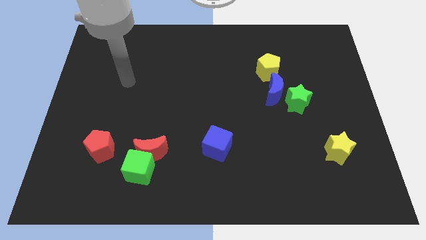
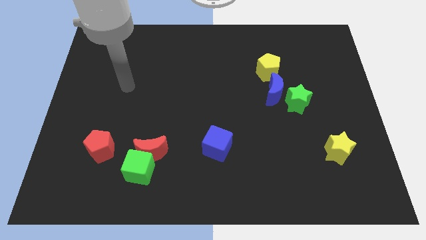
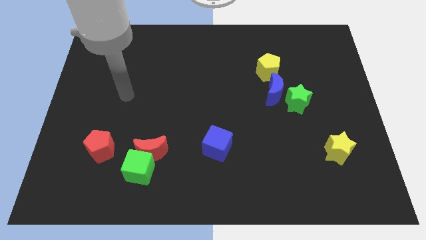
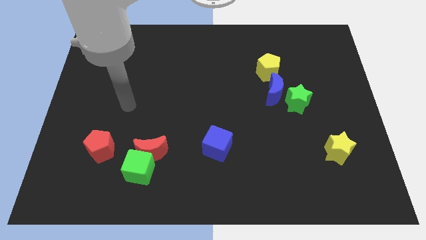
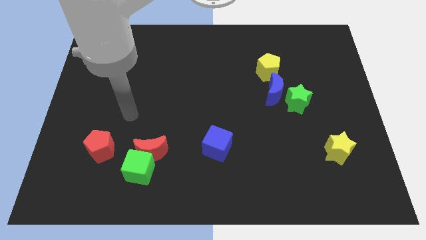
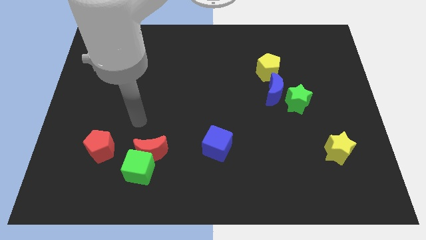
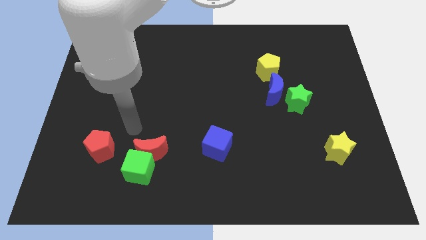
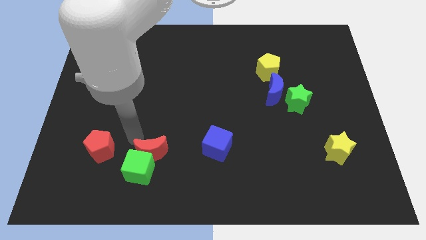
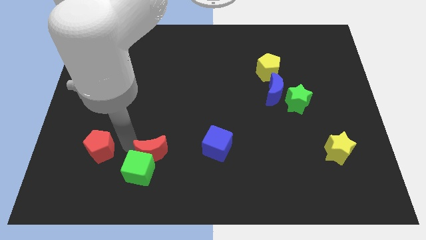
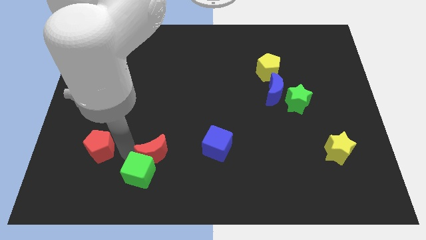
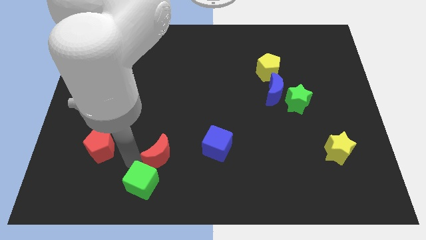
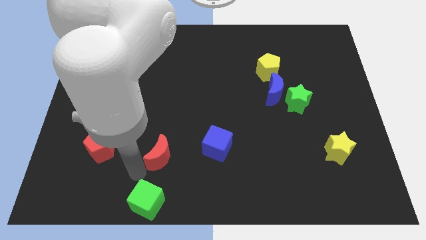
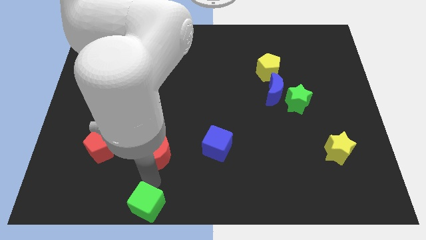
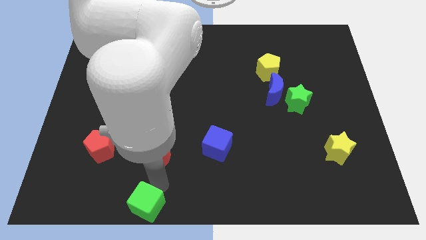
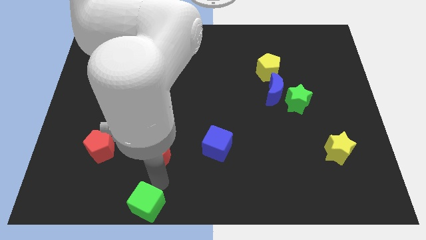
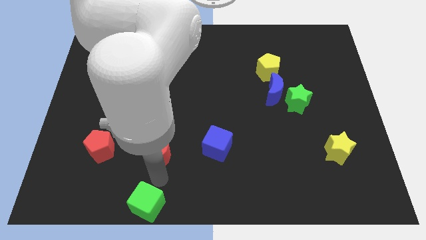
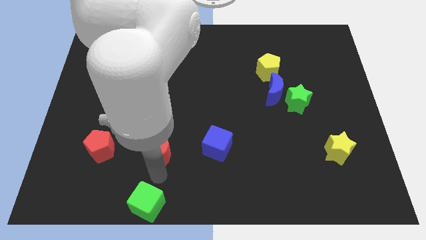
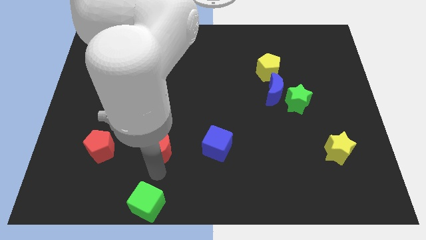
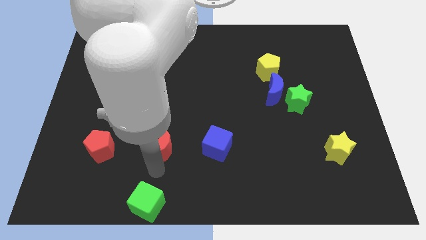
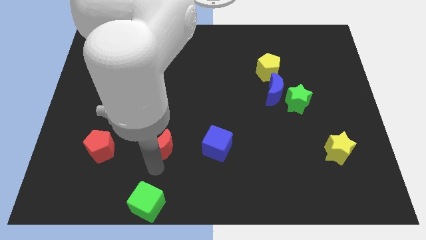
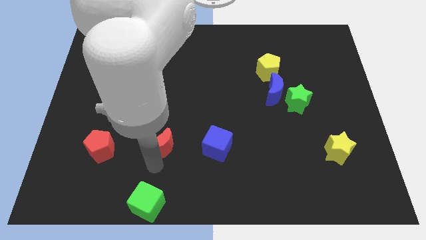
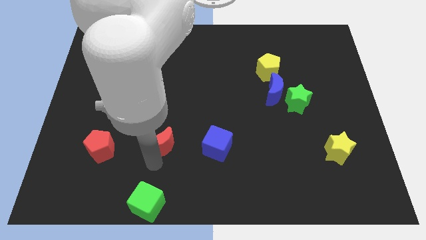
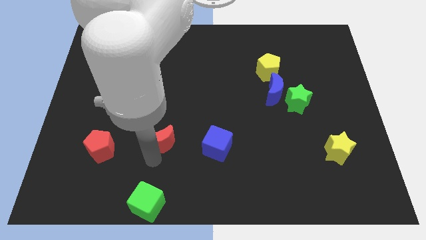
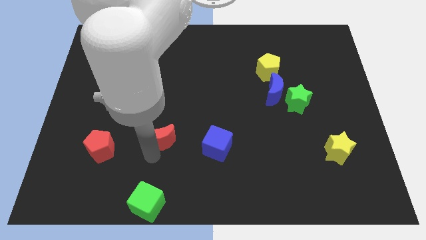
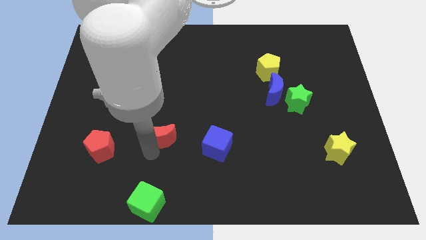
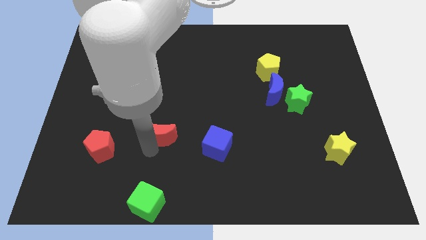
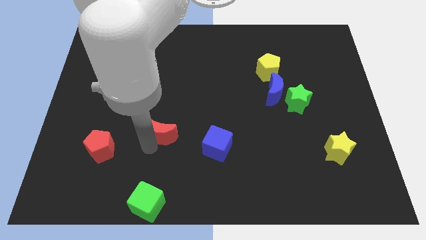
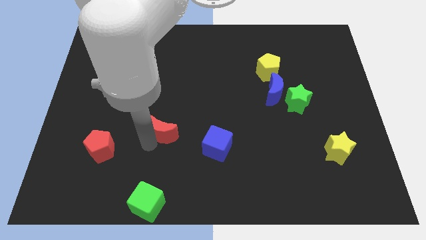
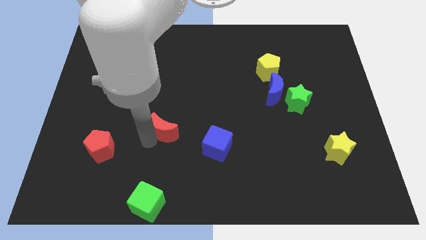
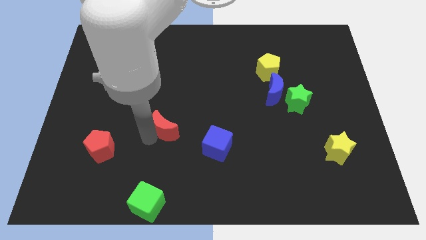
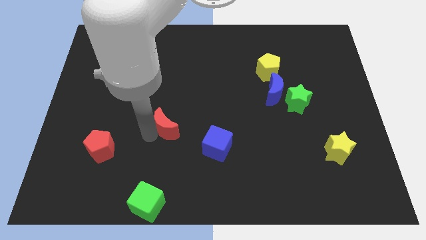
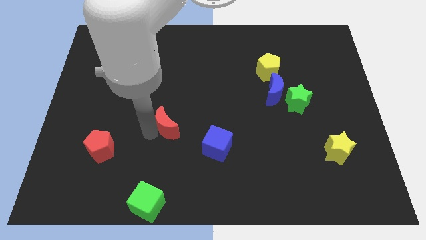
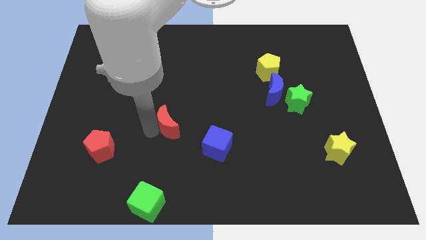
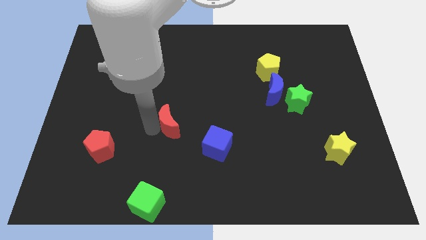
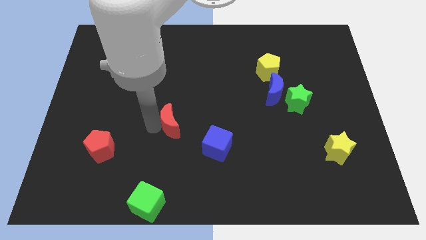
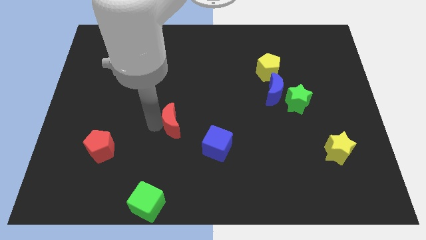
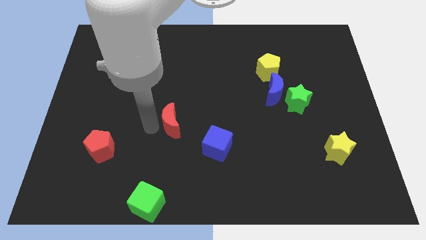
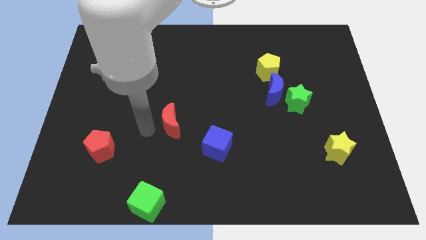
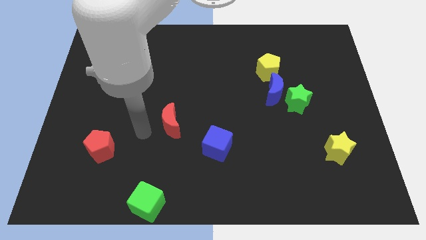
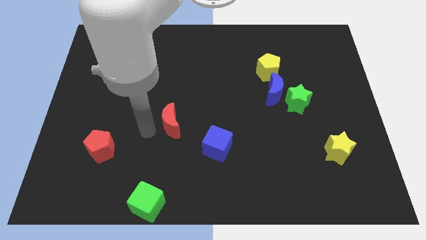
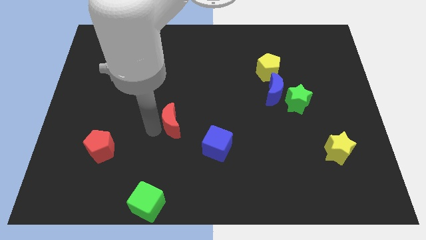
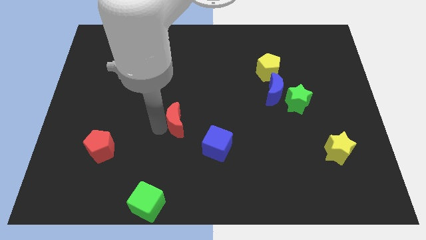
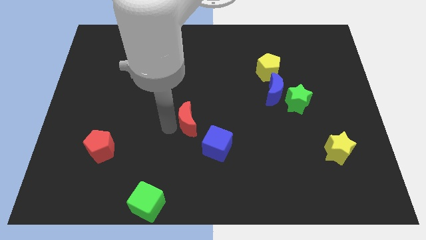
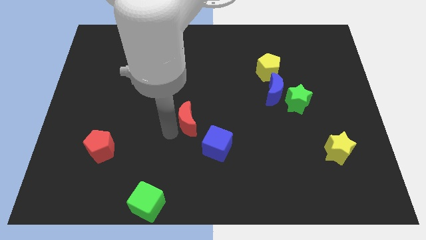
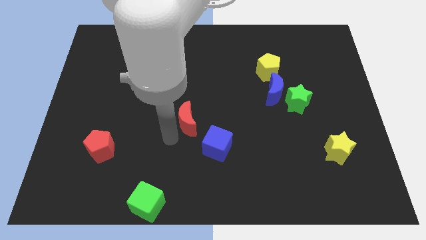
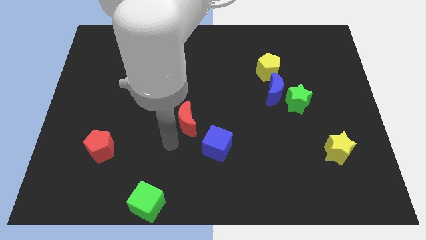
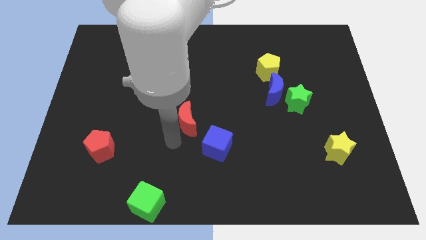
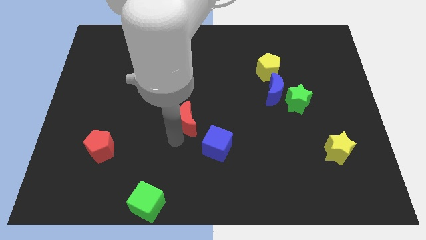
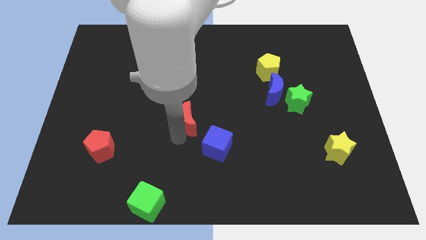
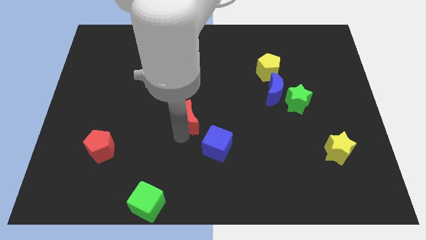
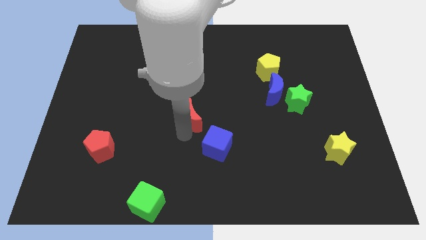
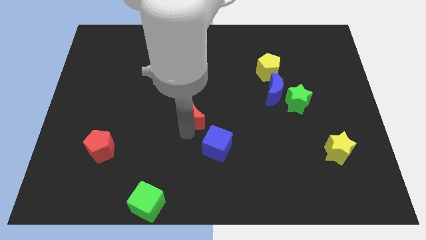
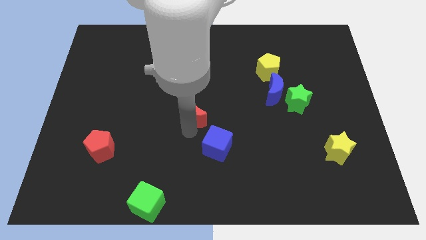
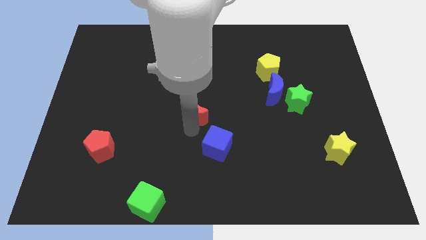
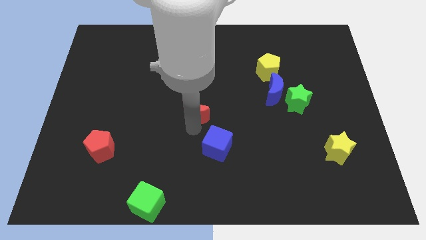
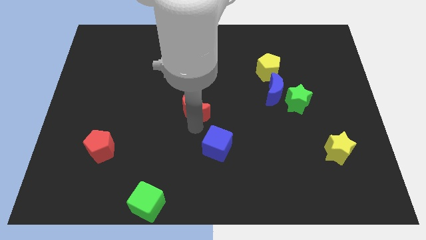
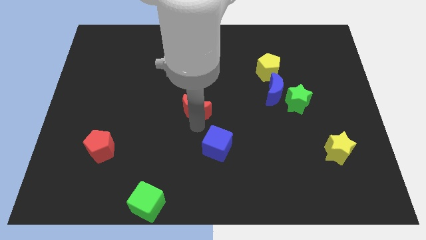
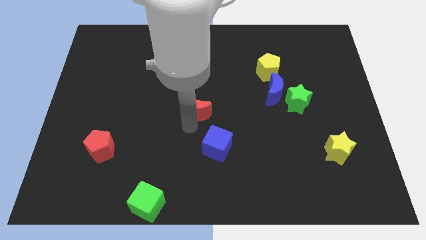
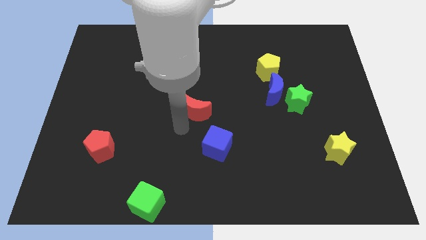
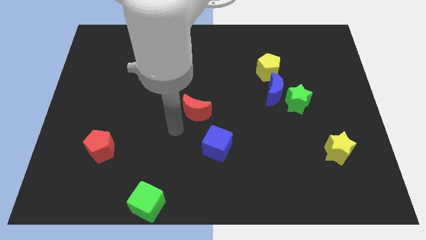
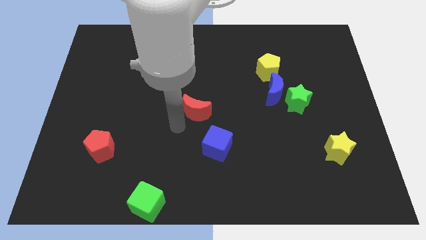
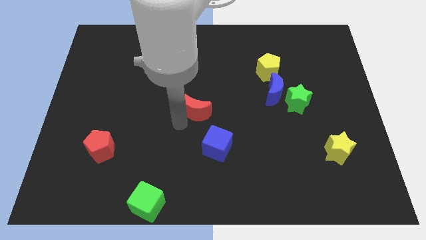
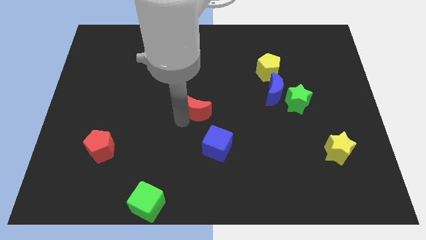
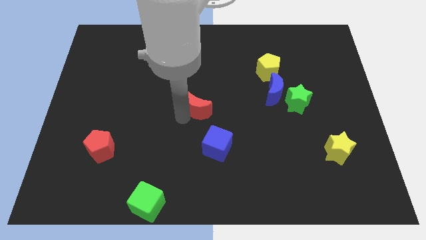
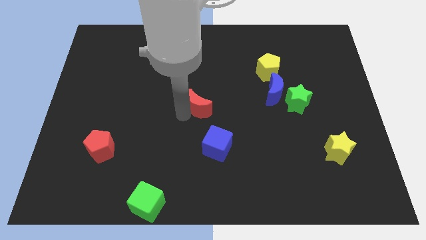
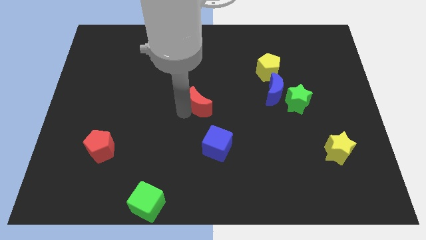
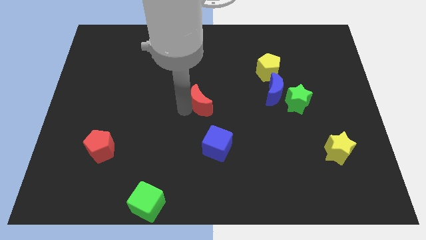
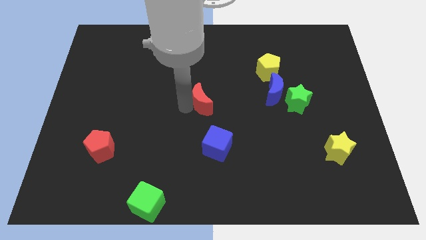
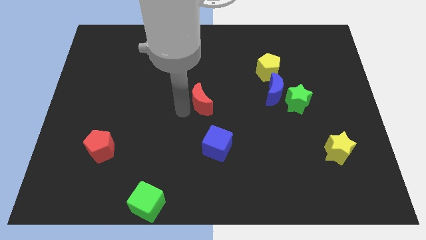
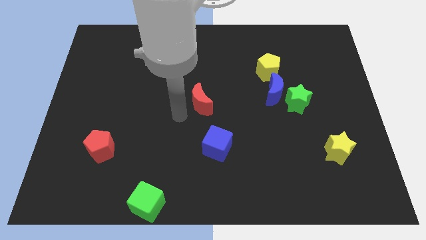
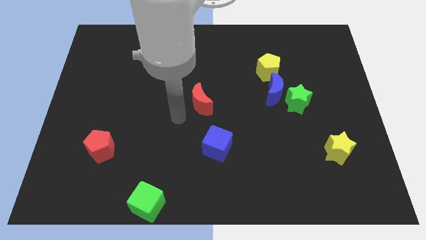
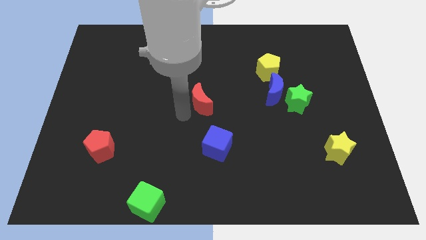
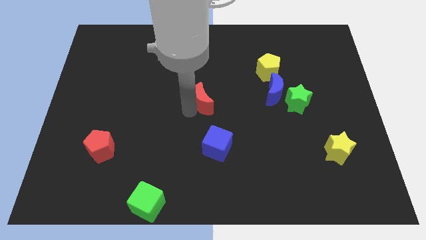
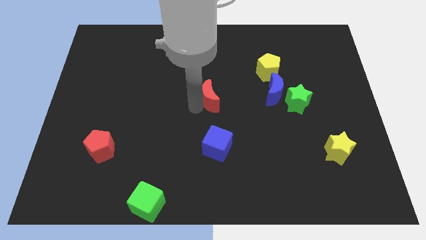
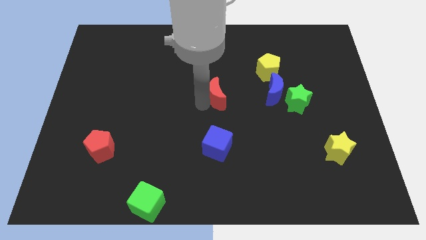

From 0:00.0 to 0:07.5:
move the red moon upwards and right
